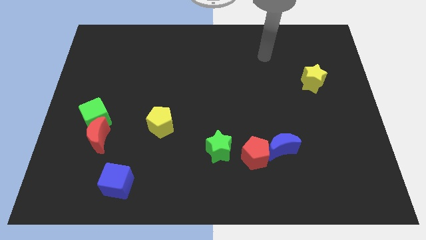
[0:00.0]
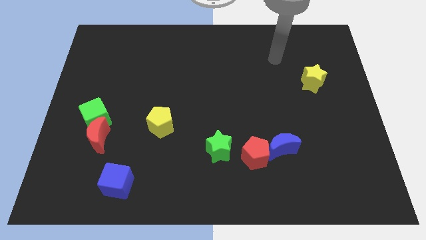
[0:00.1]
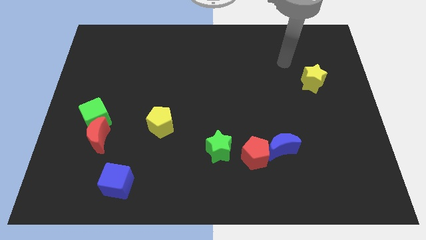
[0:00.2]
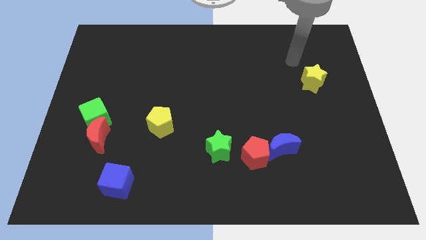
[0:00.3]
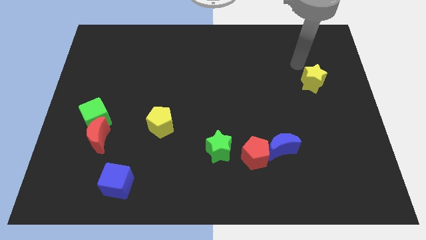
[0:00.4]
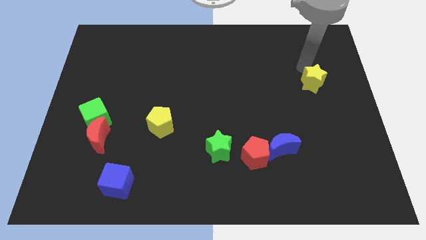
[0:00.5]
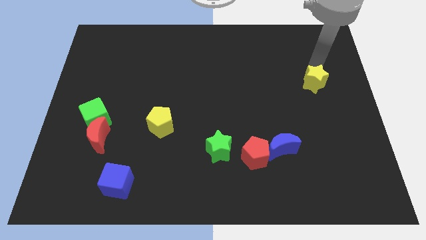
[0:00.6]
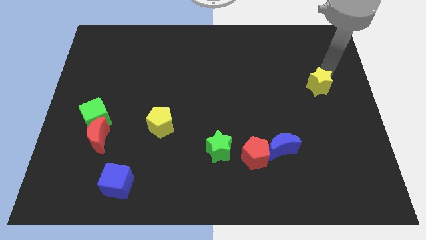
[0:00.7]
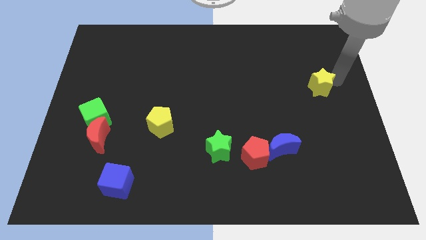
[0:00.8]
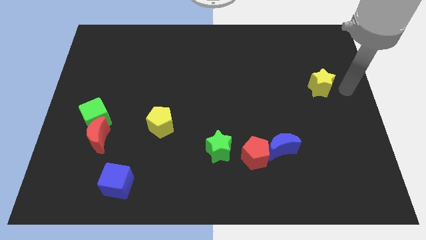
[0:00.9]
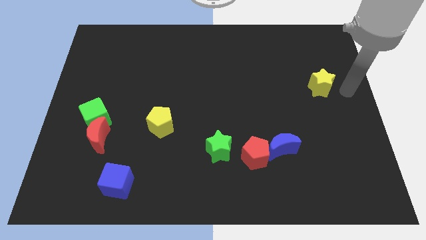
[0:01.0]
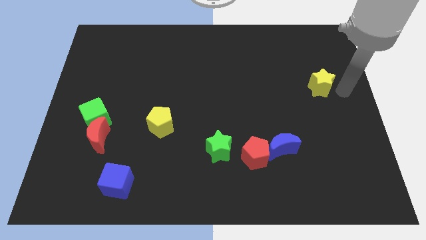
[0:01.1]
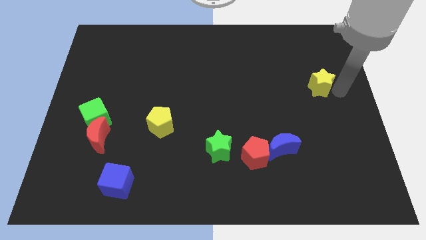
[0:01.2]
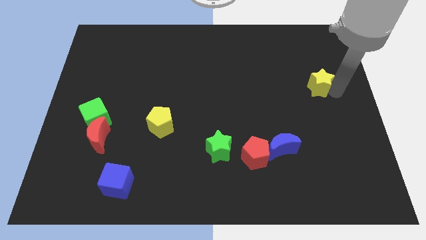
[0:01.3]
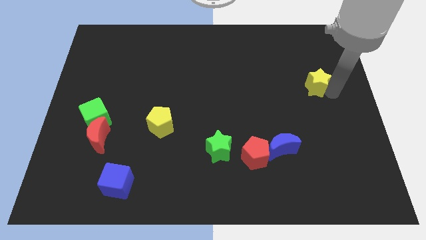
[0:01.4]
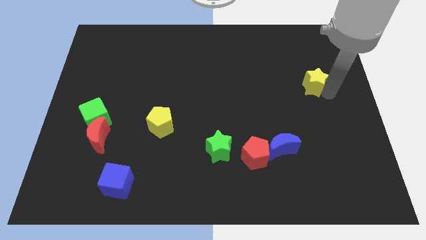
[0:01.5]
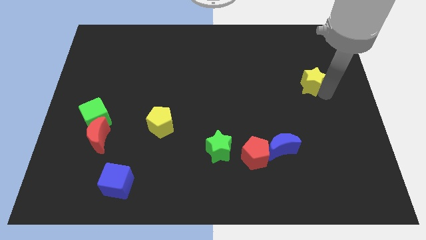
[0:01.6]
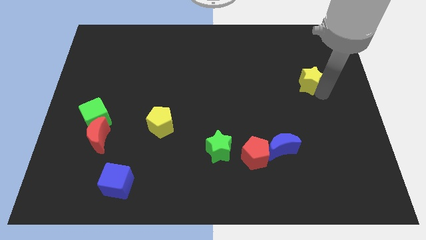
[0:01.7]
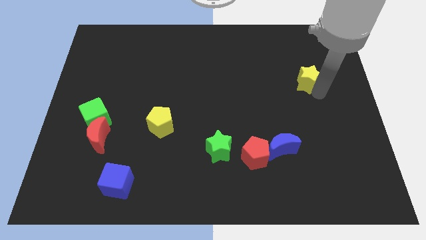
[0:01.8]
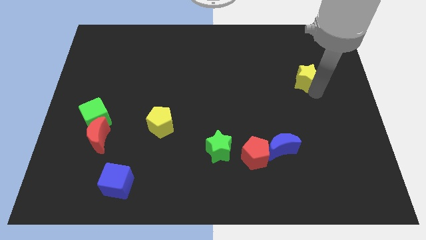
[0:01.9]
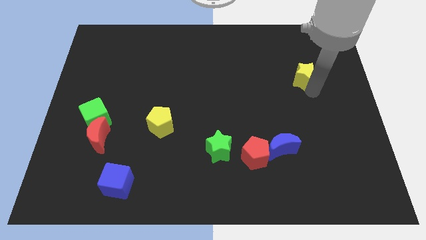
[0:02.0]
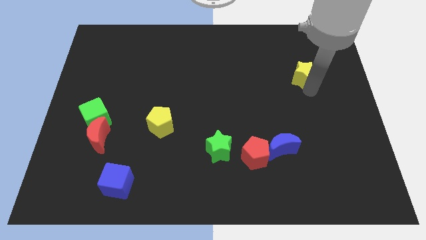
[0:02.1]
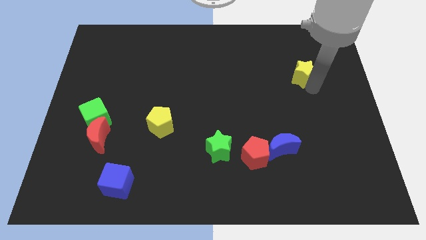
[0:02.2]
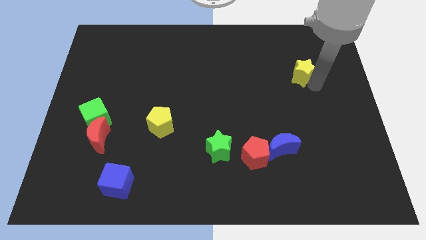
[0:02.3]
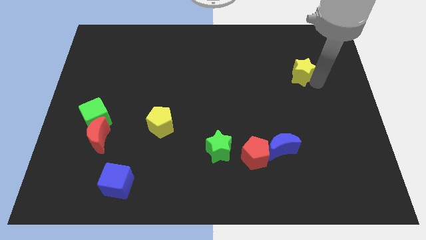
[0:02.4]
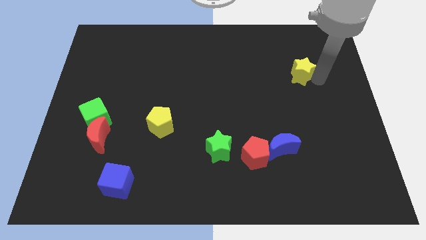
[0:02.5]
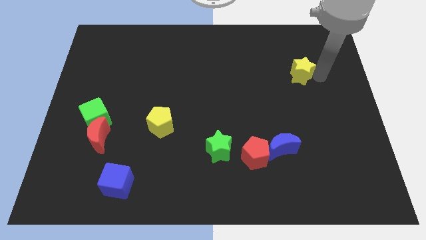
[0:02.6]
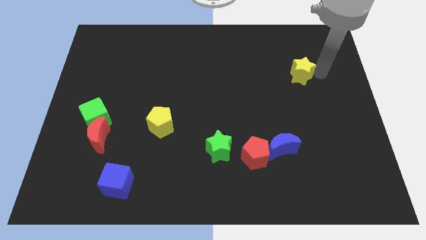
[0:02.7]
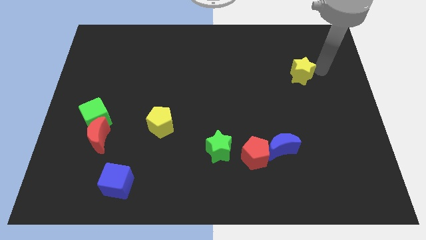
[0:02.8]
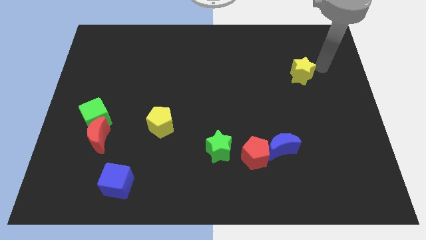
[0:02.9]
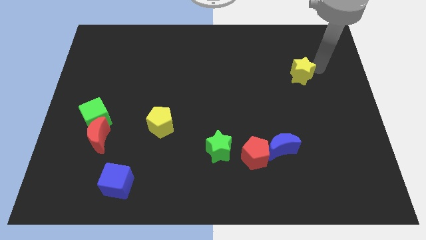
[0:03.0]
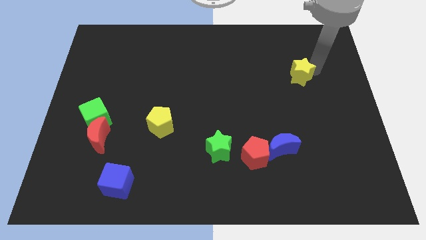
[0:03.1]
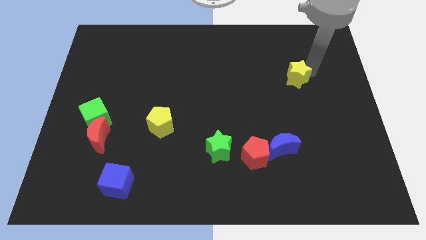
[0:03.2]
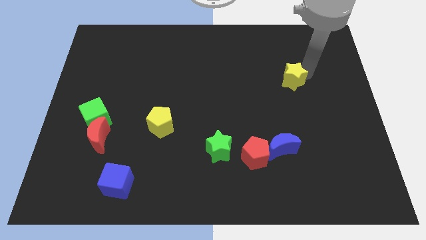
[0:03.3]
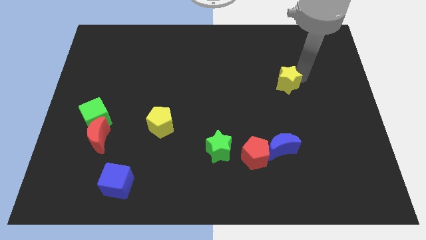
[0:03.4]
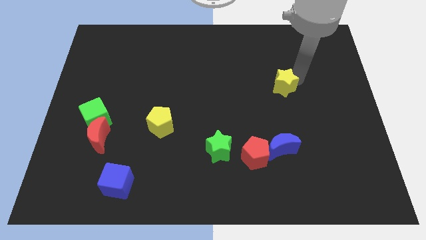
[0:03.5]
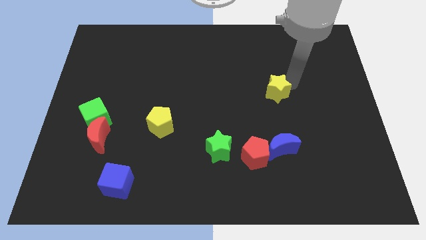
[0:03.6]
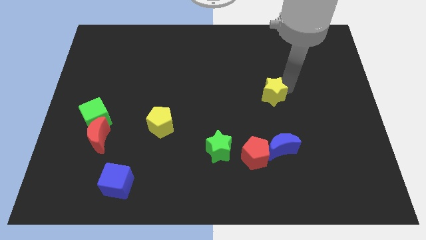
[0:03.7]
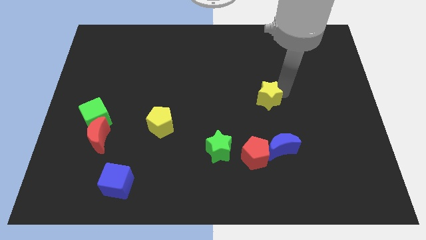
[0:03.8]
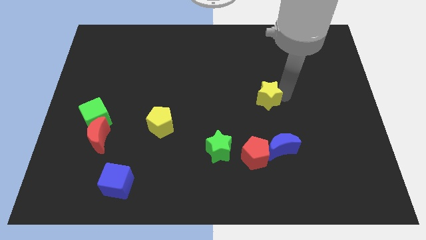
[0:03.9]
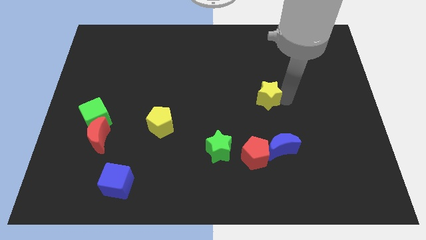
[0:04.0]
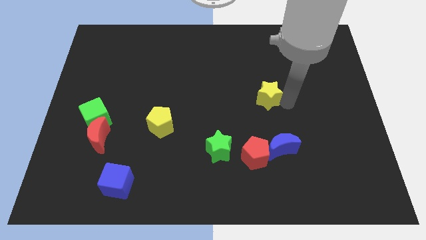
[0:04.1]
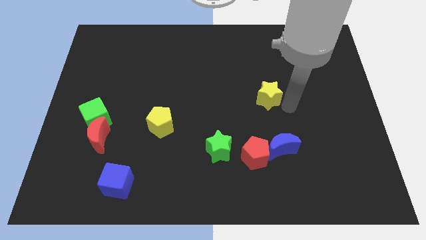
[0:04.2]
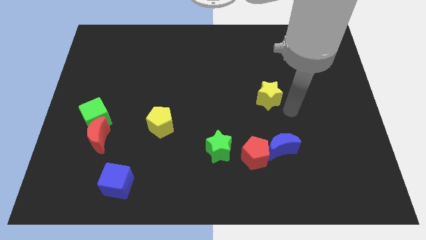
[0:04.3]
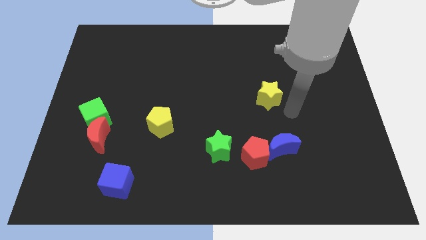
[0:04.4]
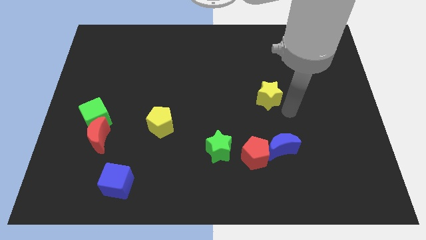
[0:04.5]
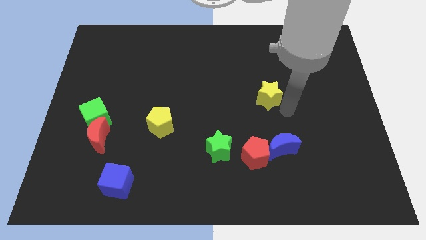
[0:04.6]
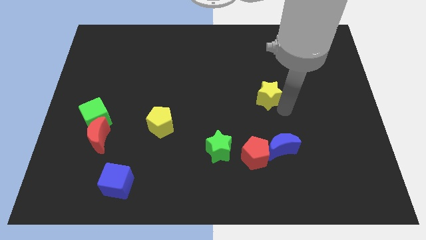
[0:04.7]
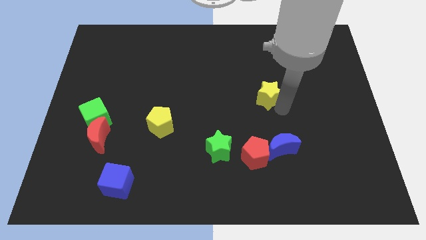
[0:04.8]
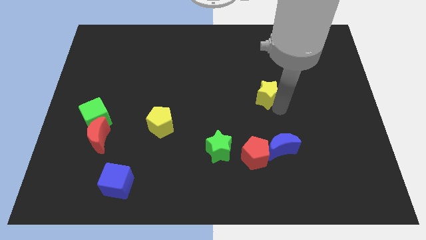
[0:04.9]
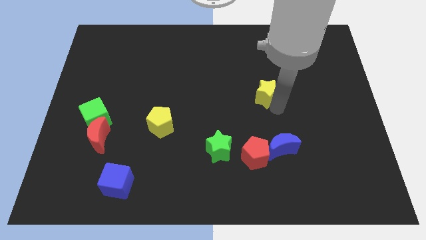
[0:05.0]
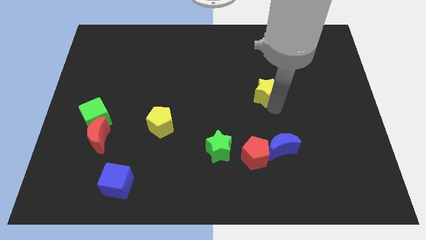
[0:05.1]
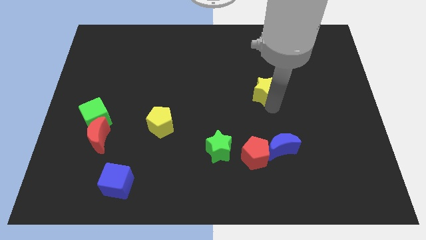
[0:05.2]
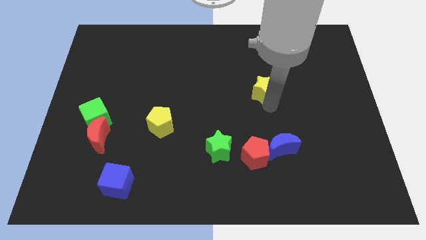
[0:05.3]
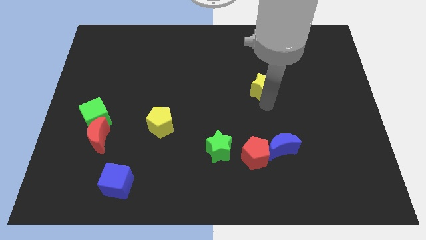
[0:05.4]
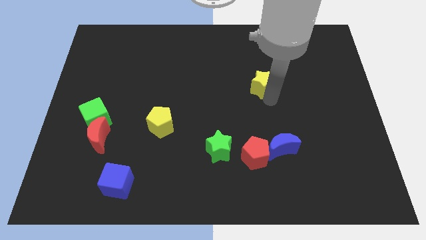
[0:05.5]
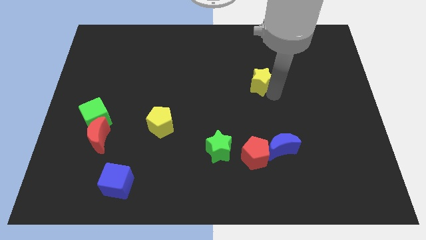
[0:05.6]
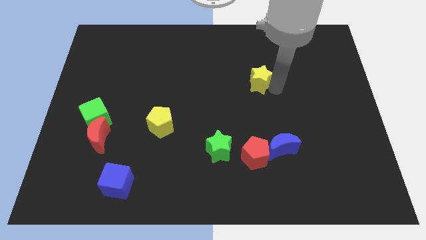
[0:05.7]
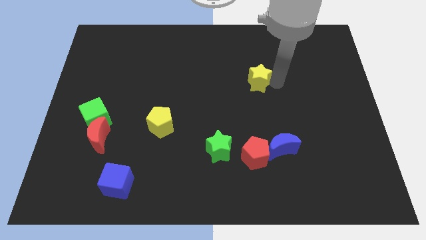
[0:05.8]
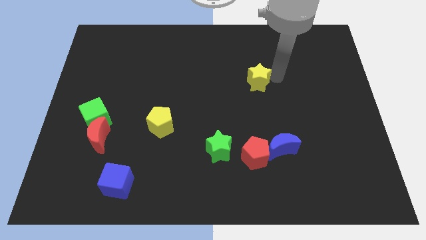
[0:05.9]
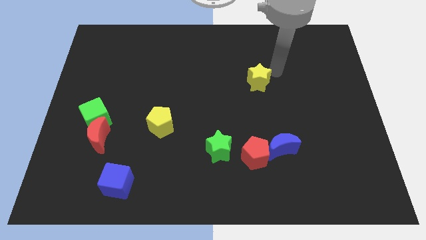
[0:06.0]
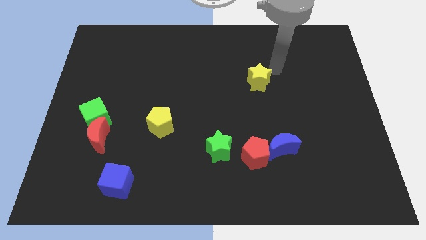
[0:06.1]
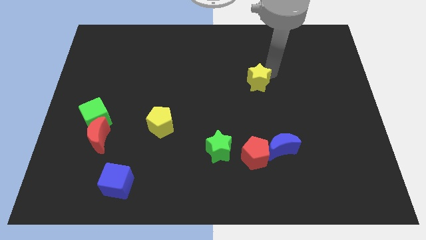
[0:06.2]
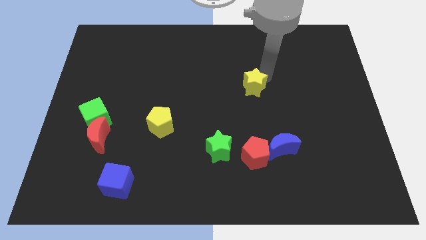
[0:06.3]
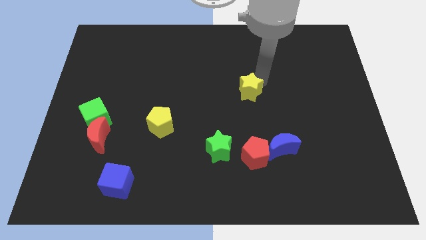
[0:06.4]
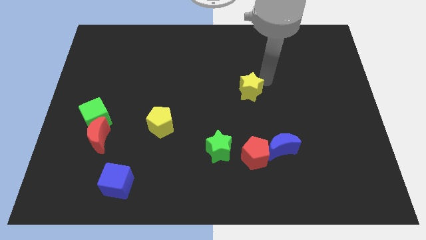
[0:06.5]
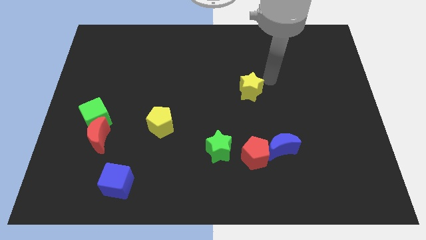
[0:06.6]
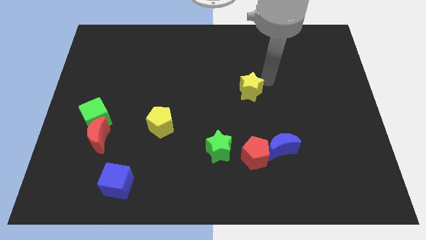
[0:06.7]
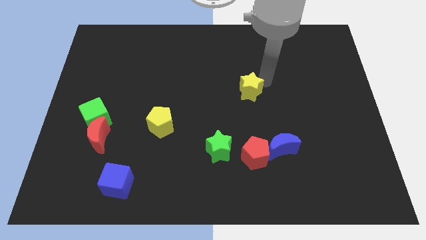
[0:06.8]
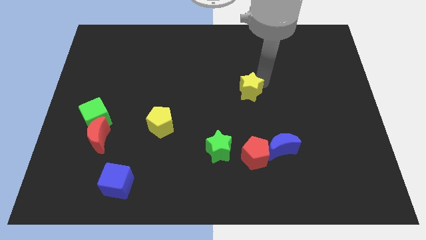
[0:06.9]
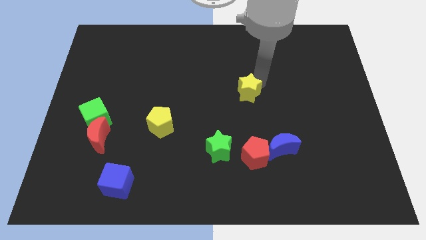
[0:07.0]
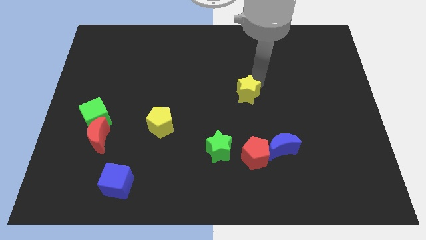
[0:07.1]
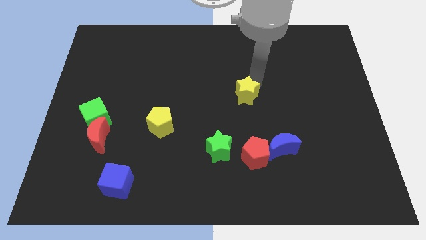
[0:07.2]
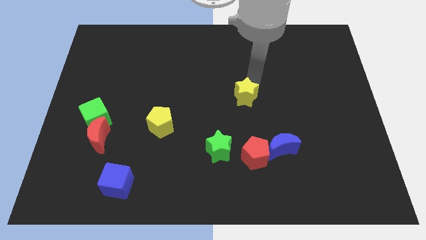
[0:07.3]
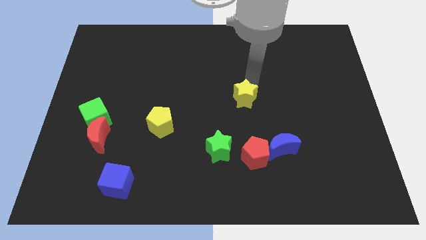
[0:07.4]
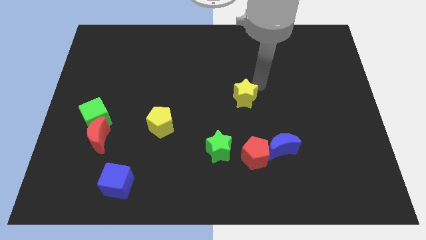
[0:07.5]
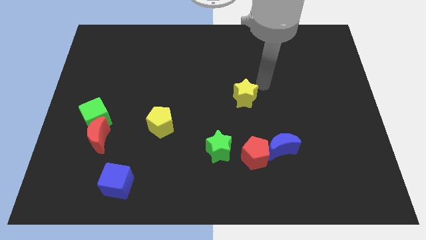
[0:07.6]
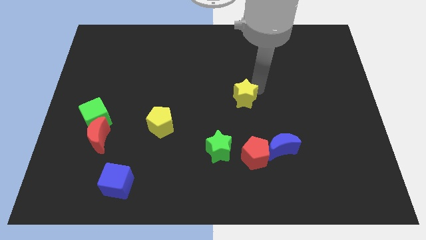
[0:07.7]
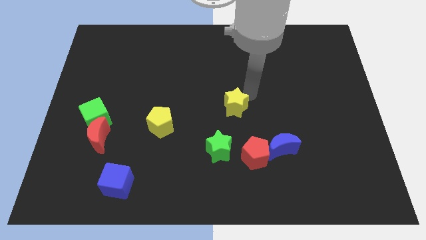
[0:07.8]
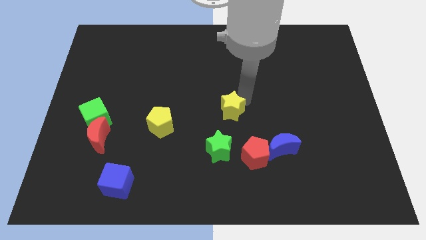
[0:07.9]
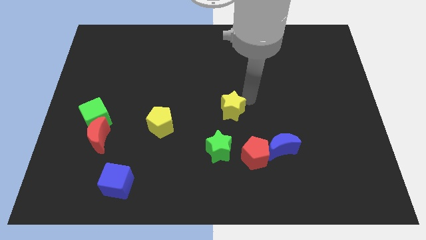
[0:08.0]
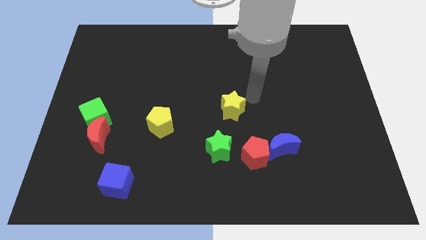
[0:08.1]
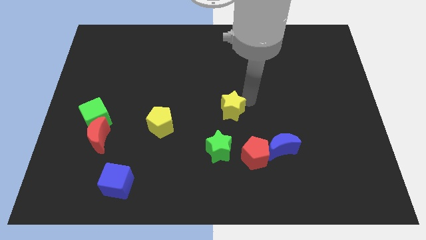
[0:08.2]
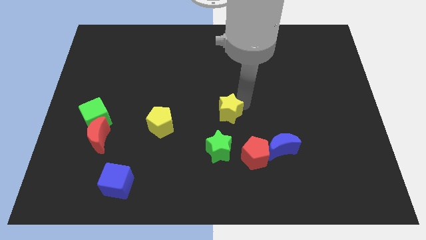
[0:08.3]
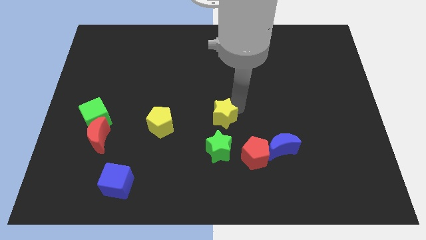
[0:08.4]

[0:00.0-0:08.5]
push the yellow star to the right side of the yellow pentagon
